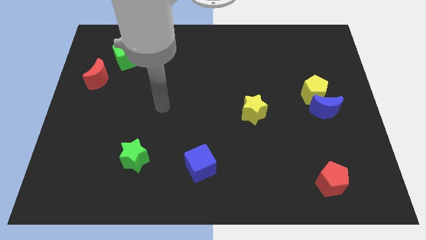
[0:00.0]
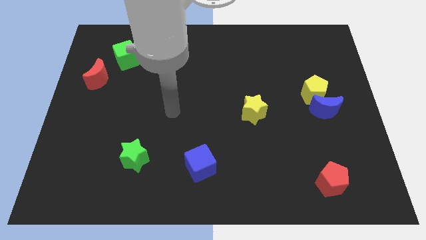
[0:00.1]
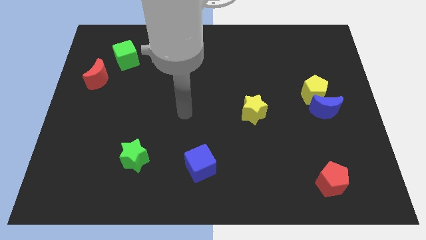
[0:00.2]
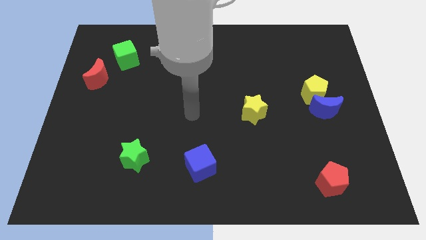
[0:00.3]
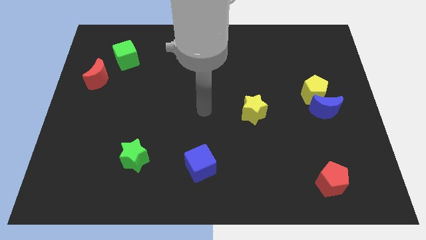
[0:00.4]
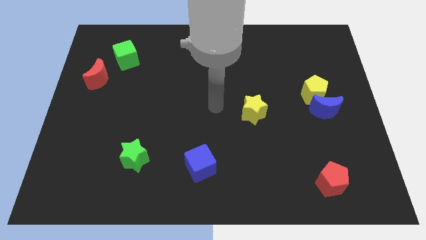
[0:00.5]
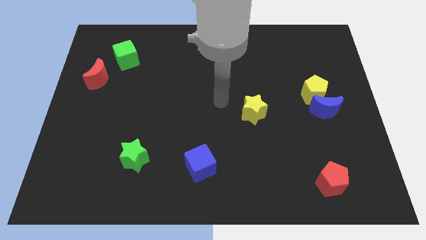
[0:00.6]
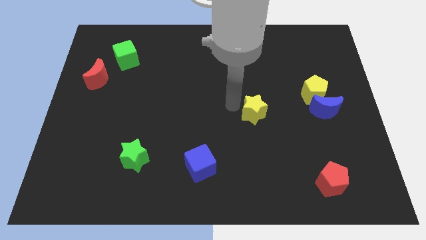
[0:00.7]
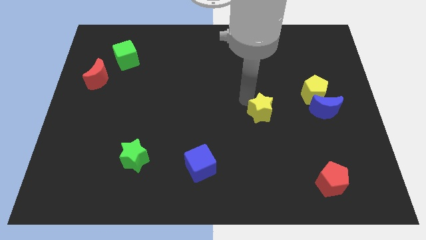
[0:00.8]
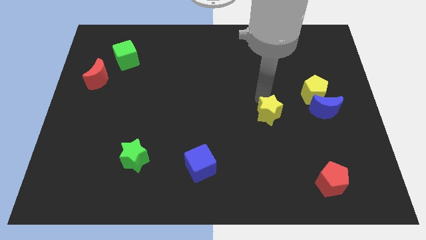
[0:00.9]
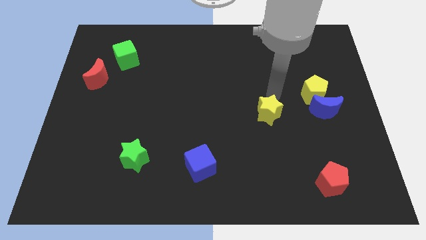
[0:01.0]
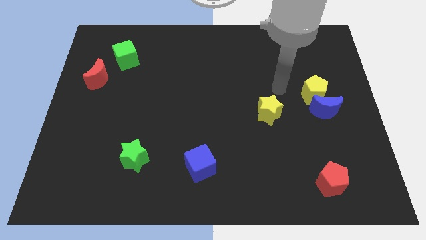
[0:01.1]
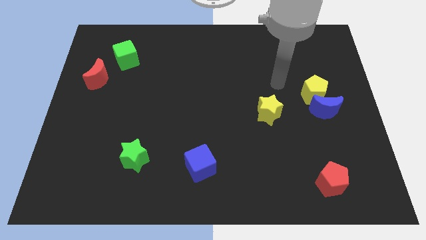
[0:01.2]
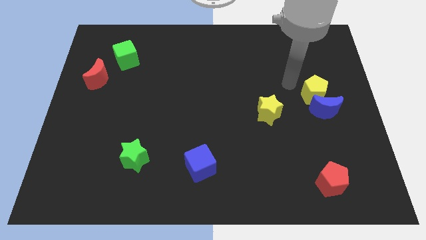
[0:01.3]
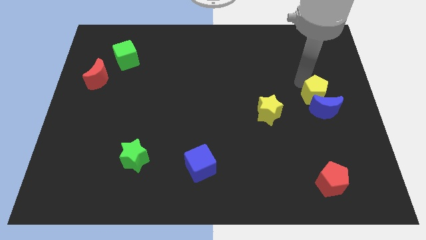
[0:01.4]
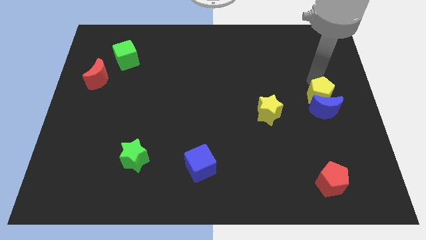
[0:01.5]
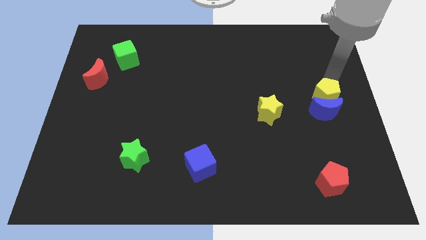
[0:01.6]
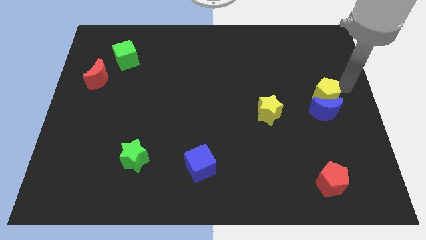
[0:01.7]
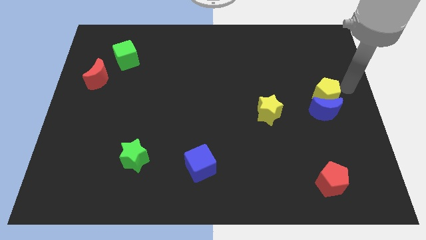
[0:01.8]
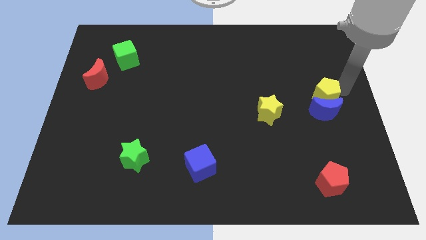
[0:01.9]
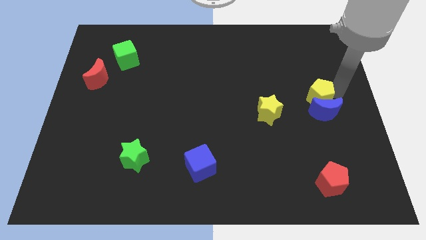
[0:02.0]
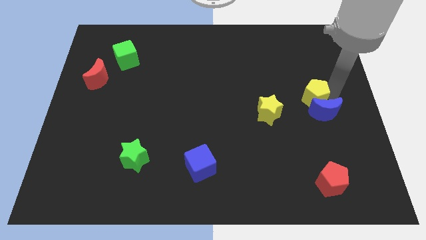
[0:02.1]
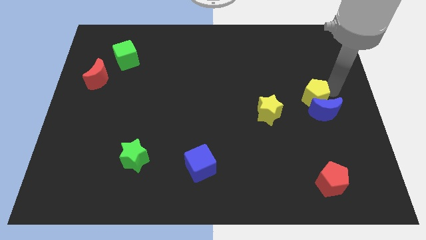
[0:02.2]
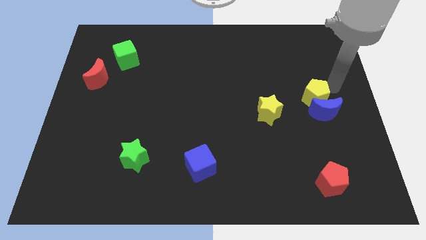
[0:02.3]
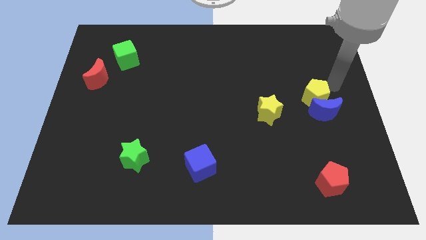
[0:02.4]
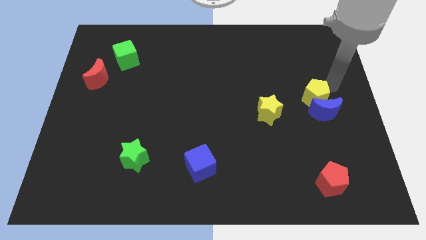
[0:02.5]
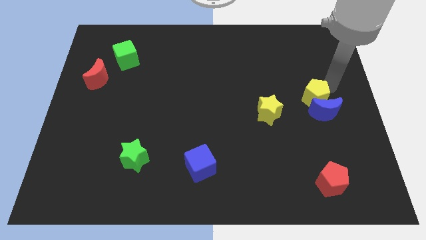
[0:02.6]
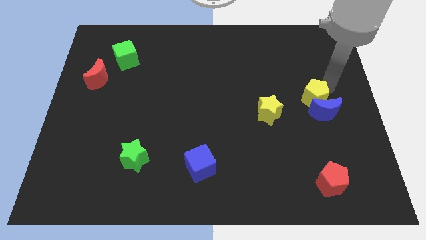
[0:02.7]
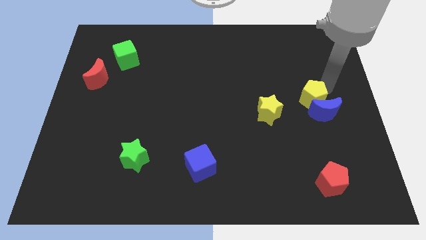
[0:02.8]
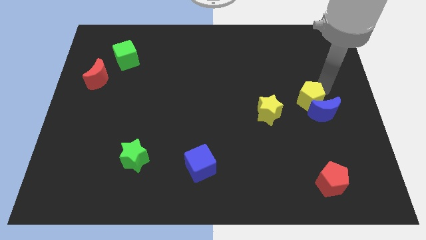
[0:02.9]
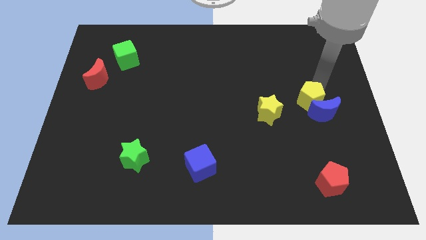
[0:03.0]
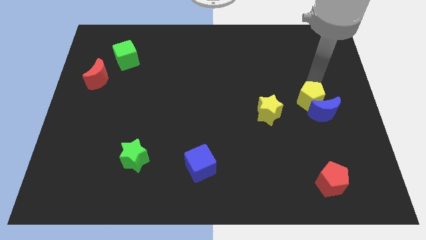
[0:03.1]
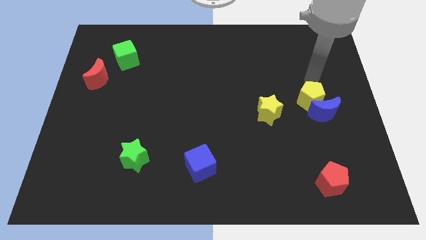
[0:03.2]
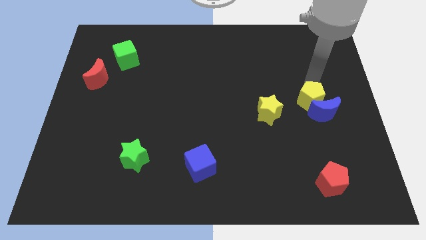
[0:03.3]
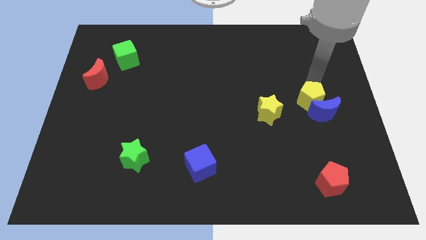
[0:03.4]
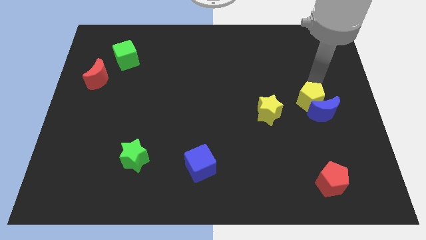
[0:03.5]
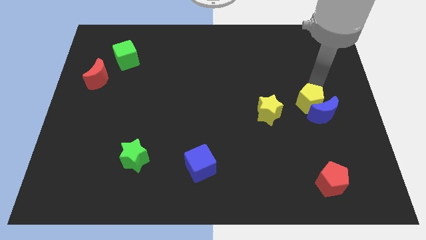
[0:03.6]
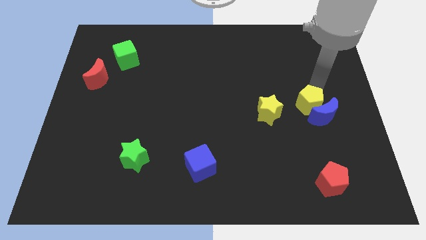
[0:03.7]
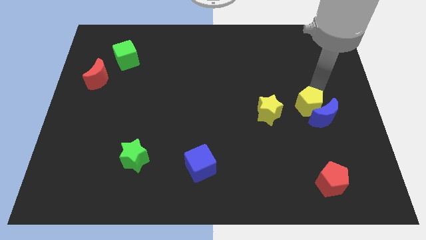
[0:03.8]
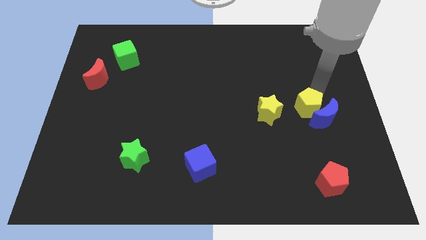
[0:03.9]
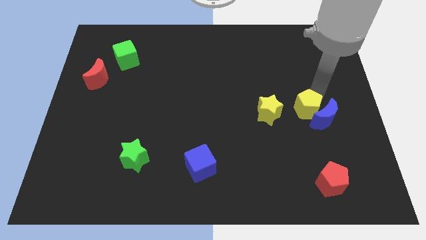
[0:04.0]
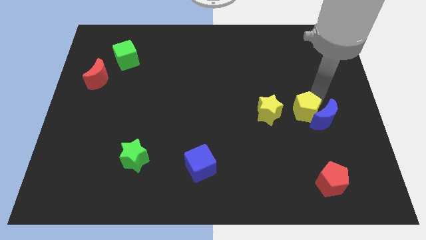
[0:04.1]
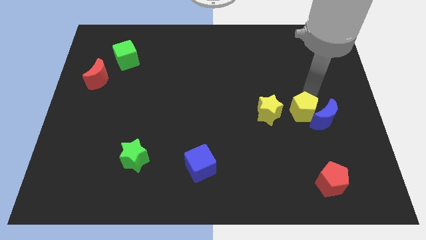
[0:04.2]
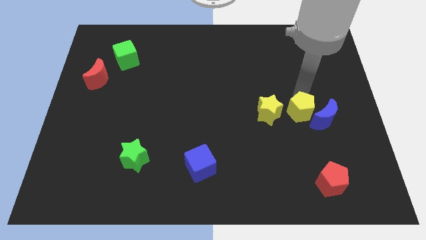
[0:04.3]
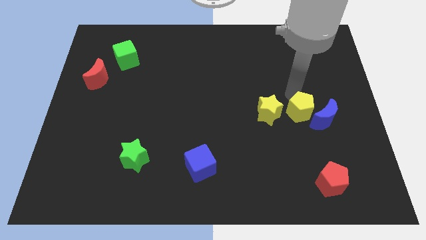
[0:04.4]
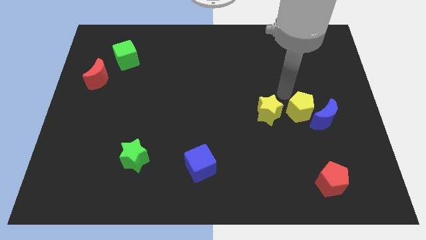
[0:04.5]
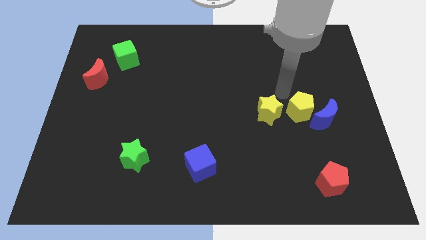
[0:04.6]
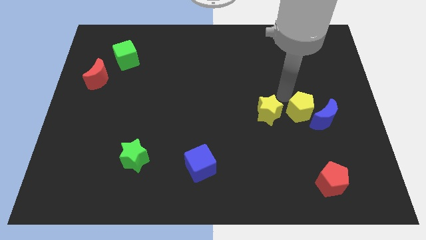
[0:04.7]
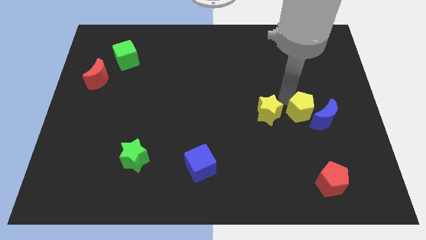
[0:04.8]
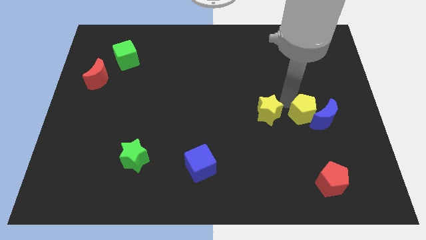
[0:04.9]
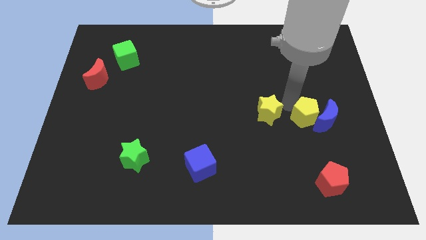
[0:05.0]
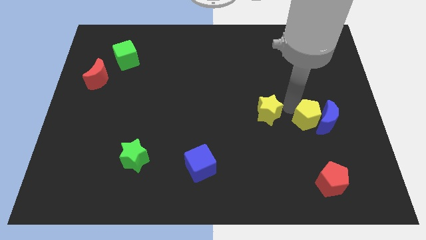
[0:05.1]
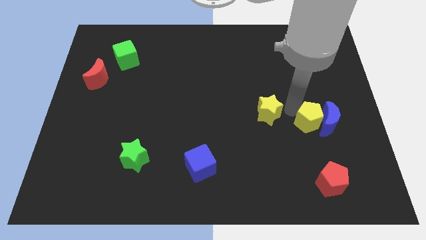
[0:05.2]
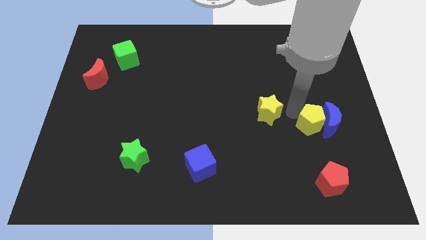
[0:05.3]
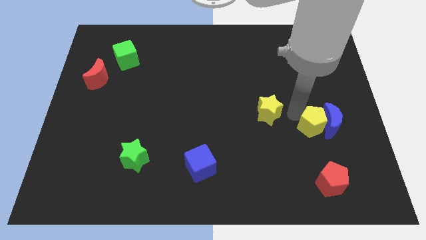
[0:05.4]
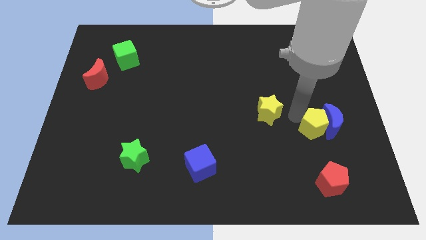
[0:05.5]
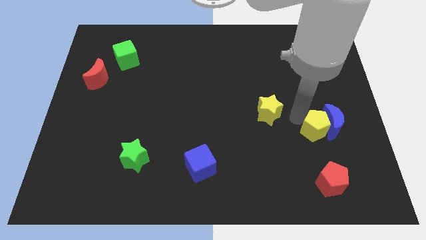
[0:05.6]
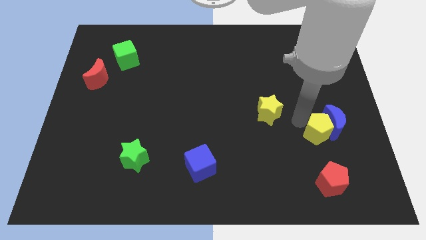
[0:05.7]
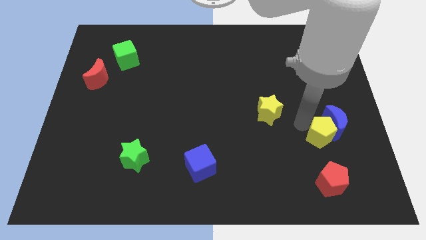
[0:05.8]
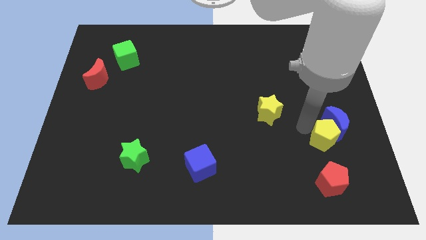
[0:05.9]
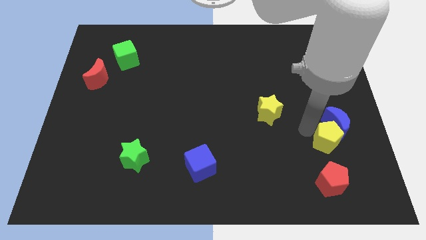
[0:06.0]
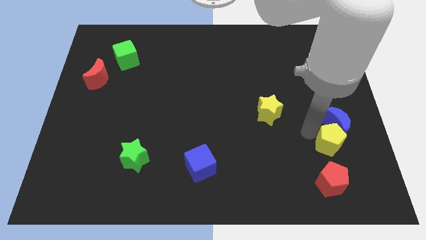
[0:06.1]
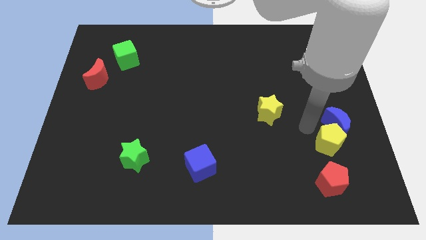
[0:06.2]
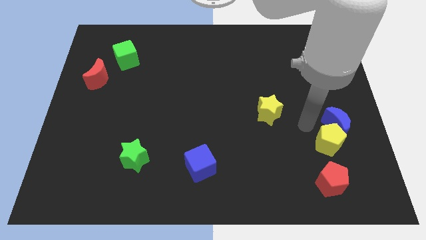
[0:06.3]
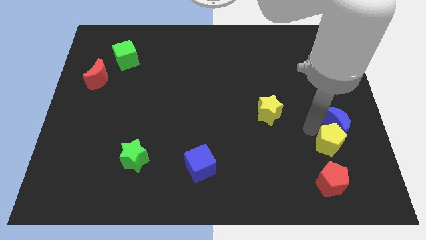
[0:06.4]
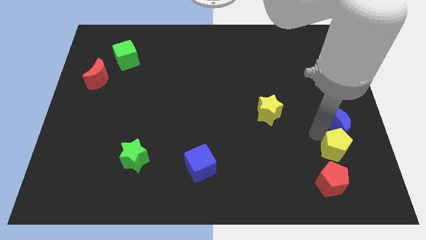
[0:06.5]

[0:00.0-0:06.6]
move the yellow pentagon to the top right side of the red pentagon
